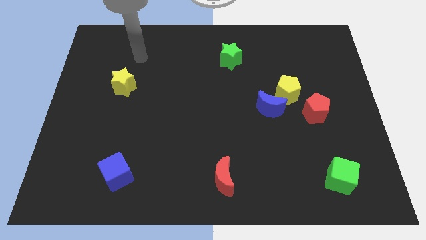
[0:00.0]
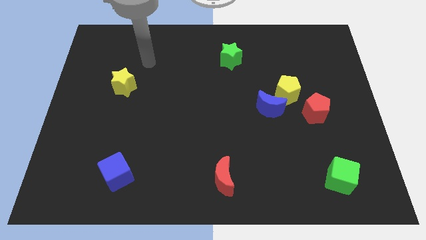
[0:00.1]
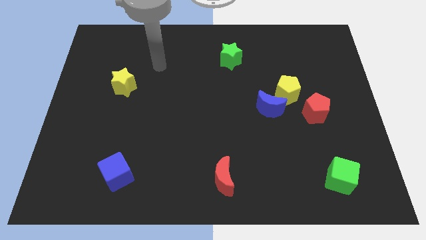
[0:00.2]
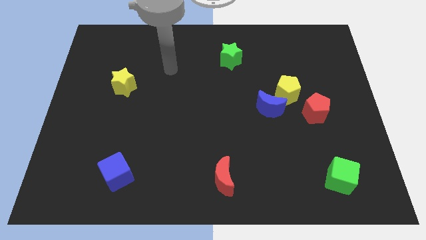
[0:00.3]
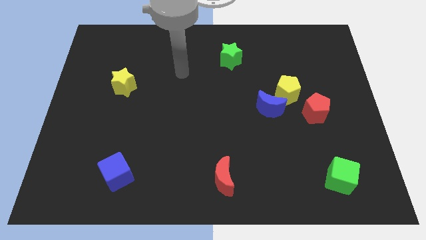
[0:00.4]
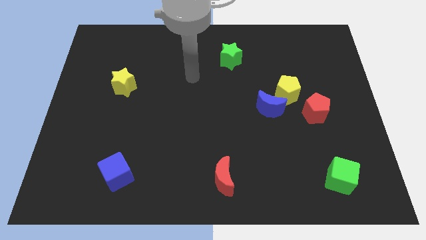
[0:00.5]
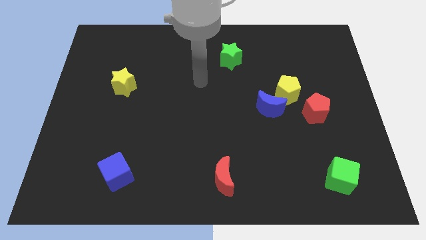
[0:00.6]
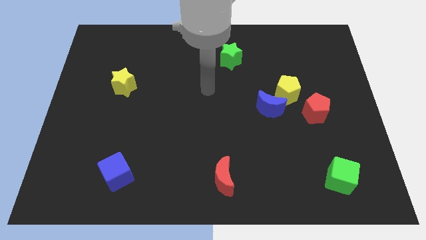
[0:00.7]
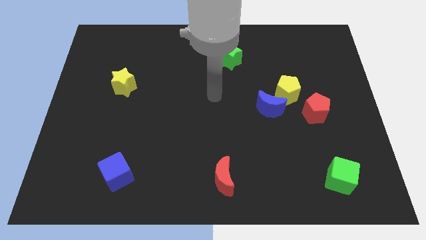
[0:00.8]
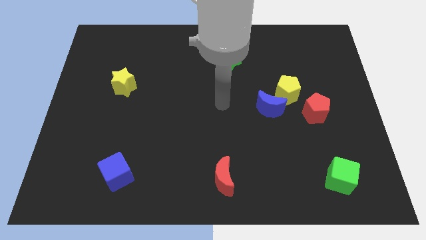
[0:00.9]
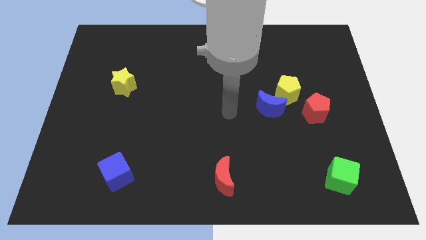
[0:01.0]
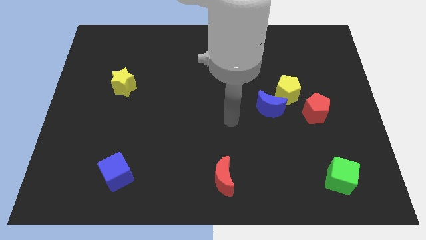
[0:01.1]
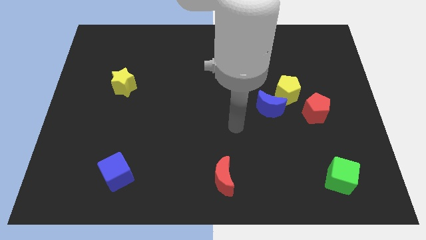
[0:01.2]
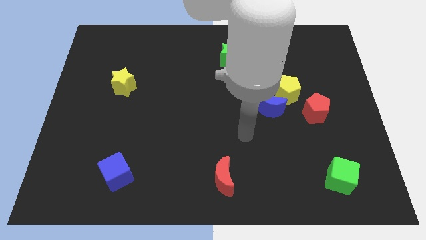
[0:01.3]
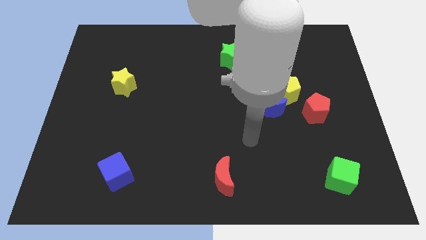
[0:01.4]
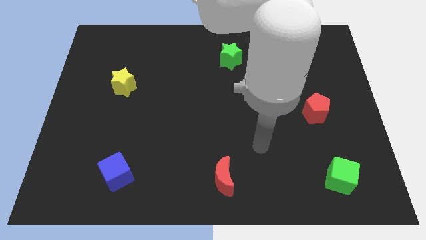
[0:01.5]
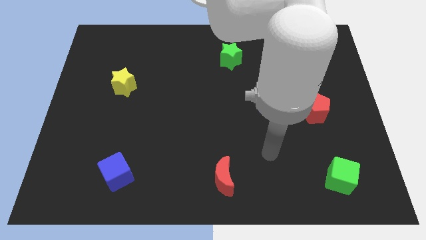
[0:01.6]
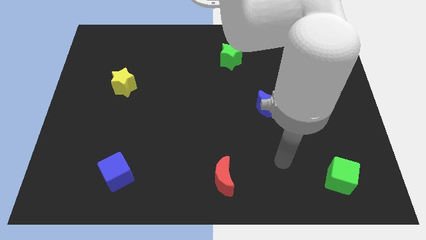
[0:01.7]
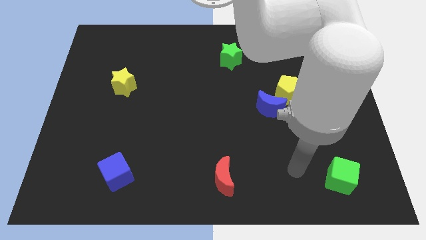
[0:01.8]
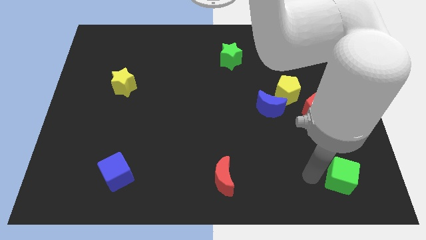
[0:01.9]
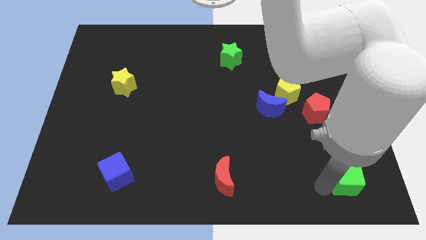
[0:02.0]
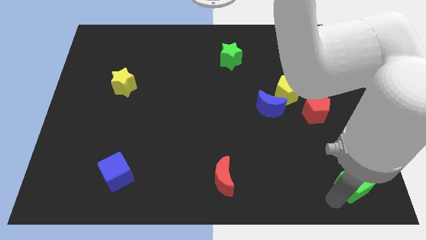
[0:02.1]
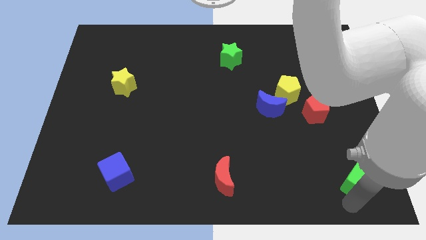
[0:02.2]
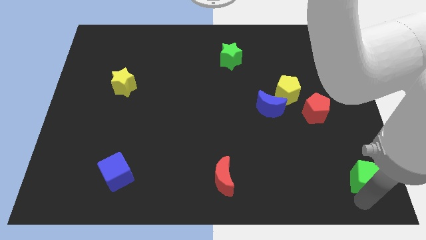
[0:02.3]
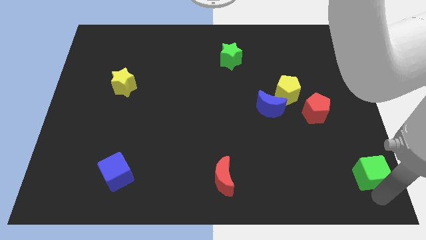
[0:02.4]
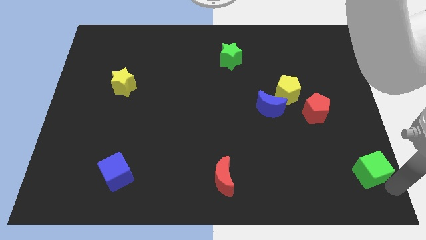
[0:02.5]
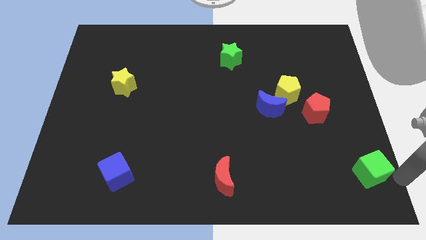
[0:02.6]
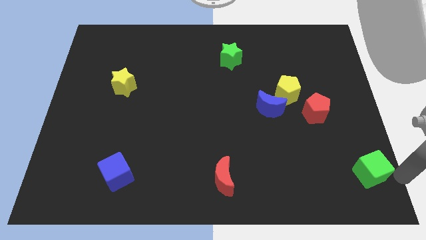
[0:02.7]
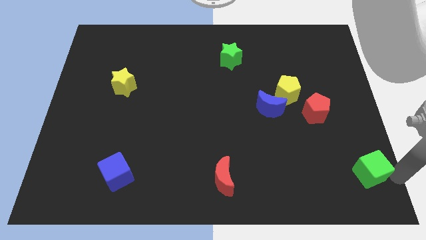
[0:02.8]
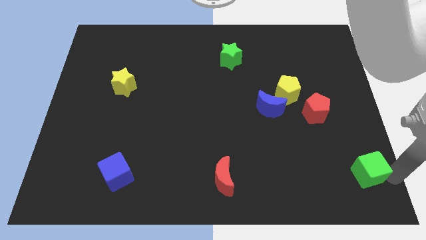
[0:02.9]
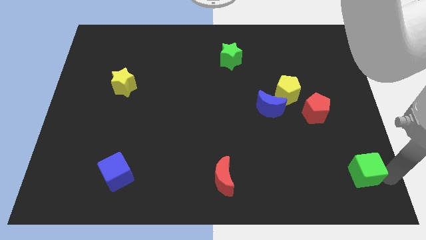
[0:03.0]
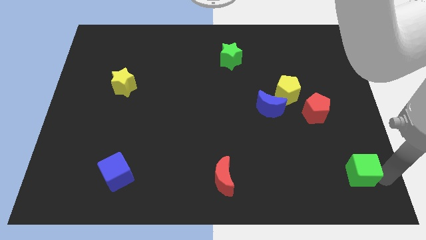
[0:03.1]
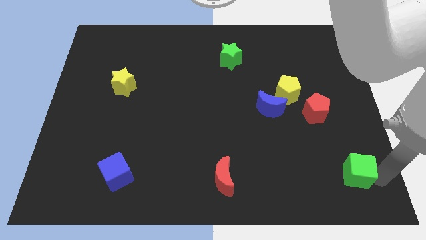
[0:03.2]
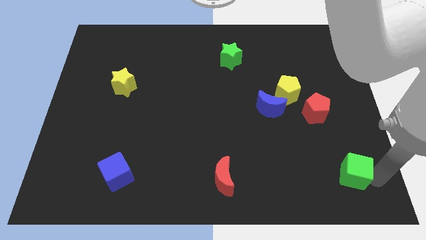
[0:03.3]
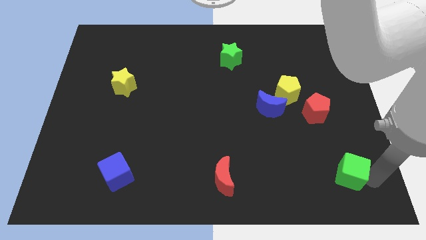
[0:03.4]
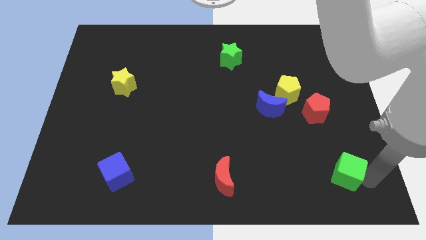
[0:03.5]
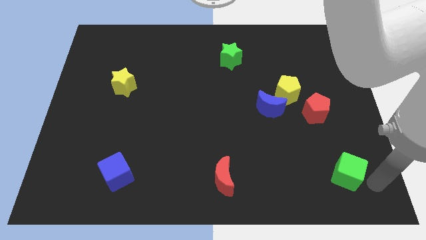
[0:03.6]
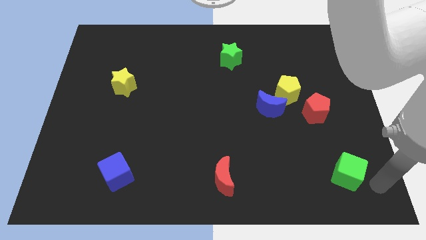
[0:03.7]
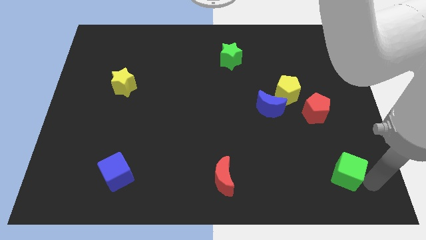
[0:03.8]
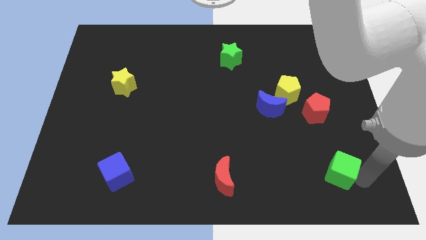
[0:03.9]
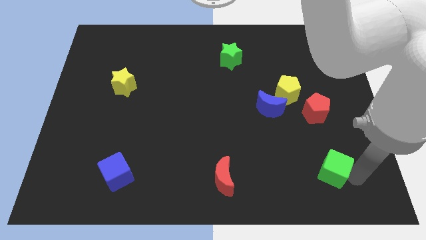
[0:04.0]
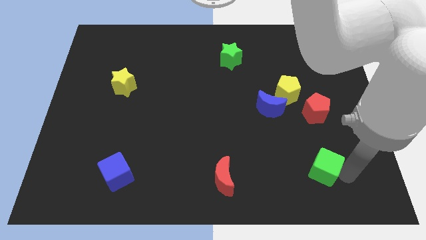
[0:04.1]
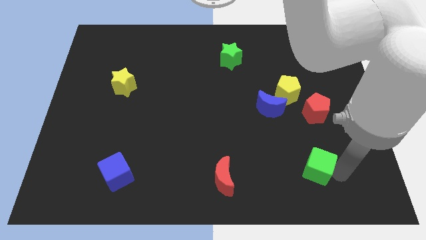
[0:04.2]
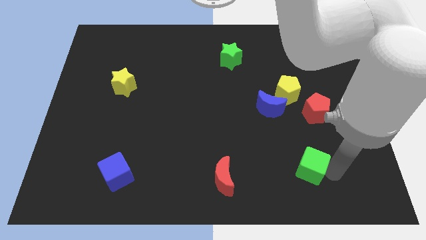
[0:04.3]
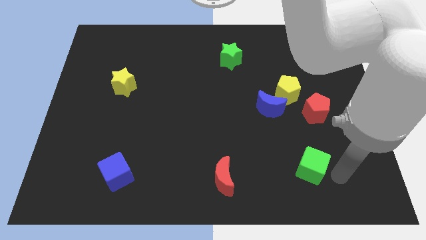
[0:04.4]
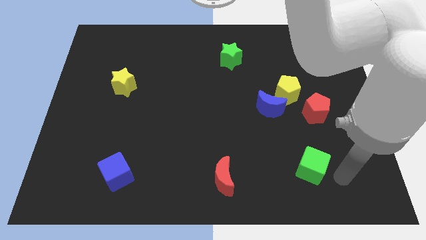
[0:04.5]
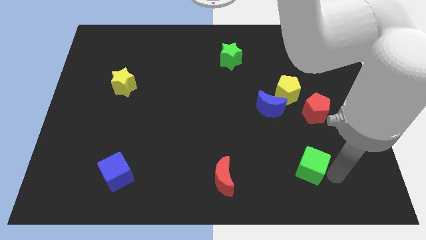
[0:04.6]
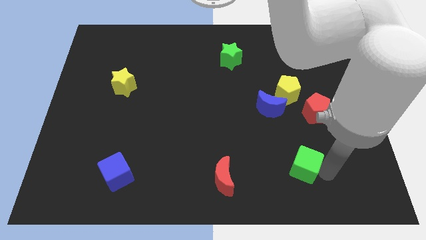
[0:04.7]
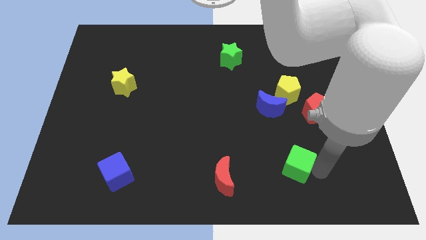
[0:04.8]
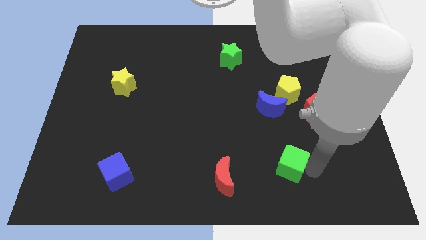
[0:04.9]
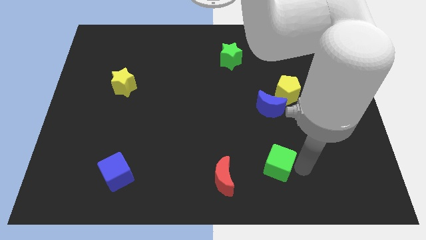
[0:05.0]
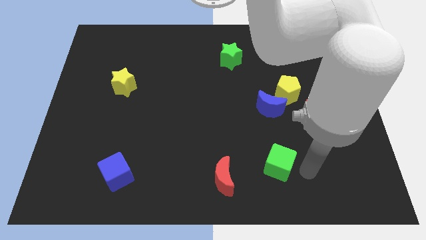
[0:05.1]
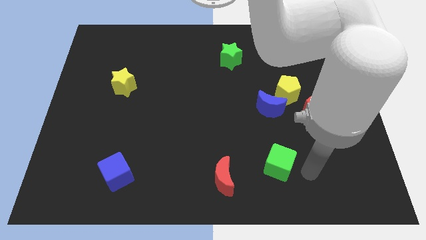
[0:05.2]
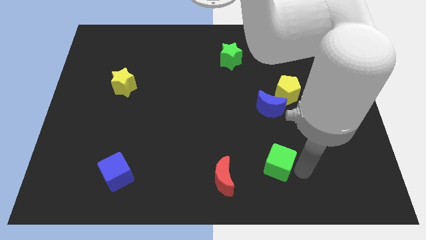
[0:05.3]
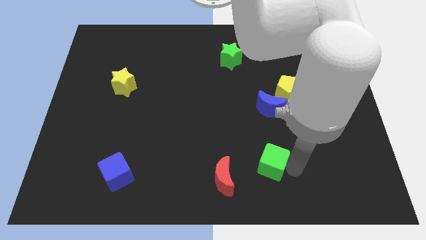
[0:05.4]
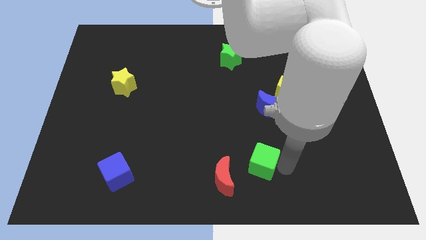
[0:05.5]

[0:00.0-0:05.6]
slide the green cube to the top right of the red moon

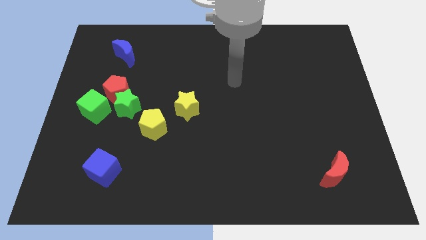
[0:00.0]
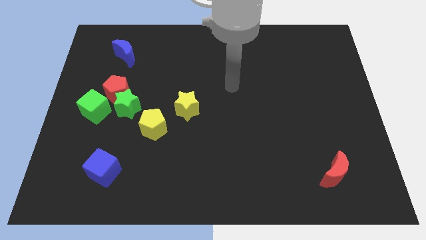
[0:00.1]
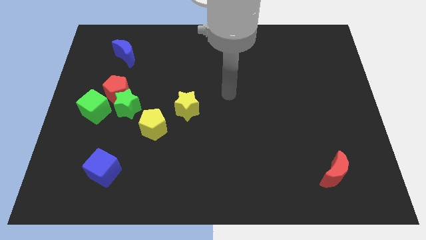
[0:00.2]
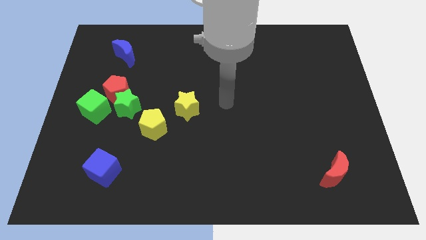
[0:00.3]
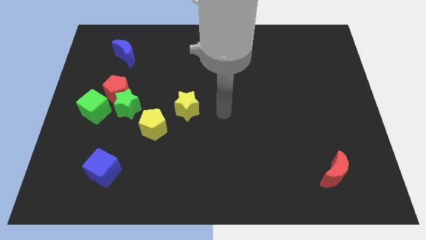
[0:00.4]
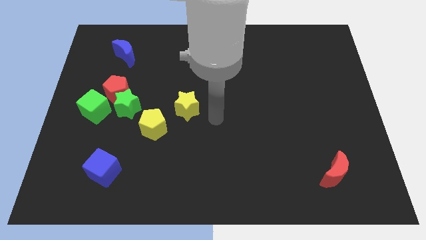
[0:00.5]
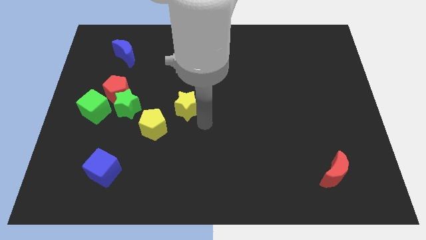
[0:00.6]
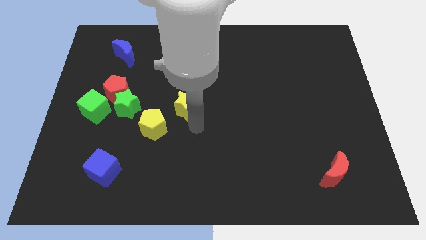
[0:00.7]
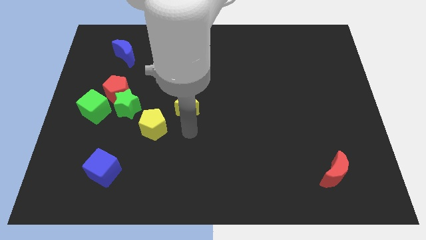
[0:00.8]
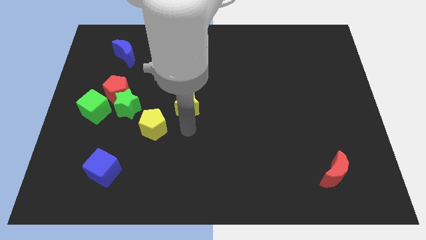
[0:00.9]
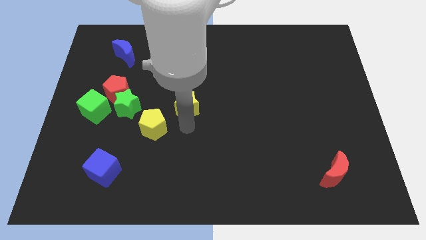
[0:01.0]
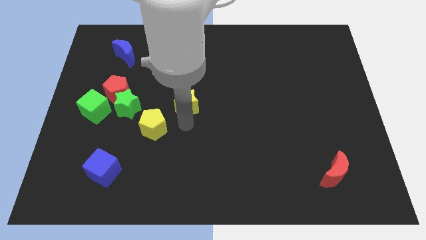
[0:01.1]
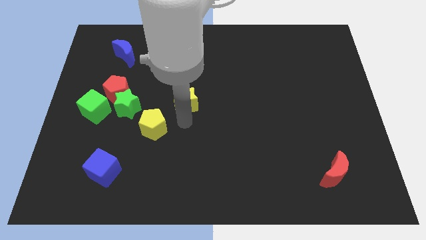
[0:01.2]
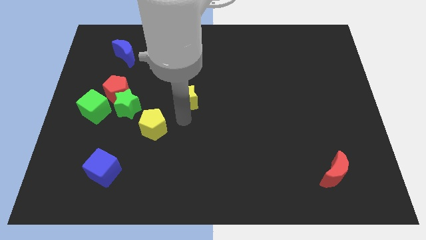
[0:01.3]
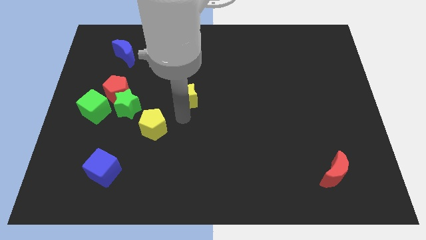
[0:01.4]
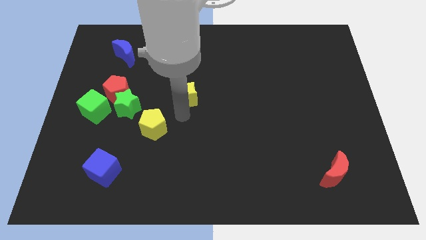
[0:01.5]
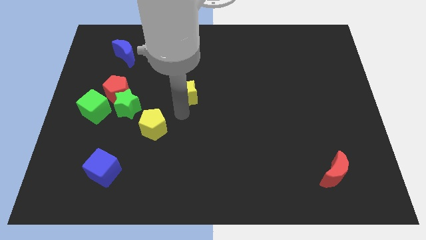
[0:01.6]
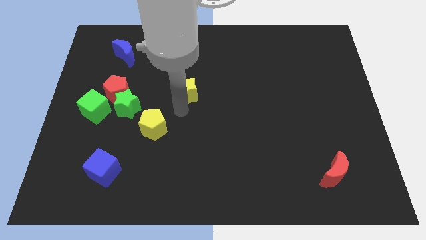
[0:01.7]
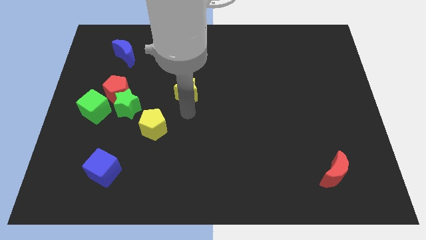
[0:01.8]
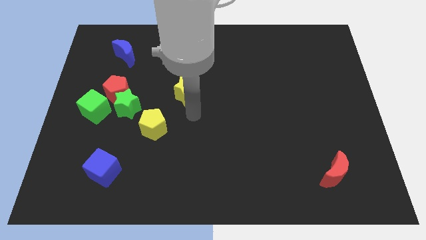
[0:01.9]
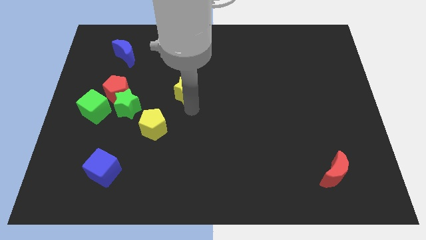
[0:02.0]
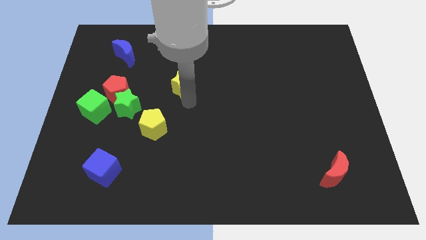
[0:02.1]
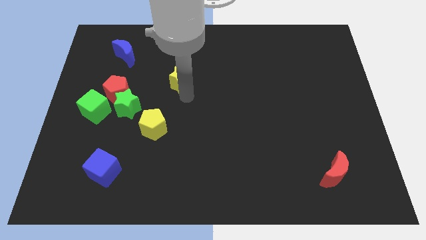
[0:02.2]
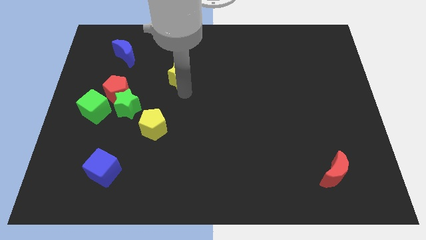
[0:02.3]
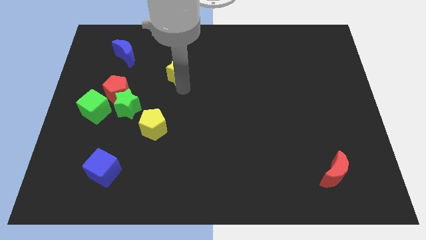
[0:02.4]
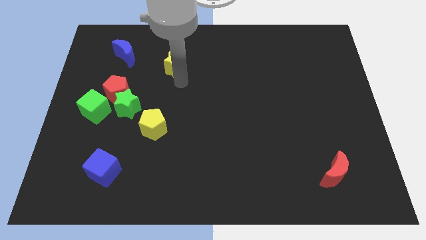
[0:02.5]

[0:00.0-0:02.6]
put the yellow star to the right of the blue moon
